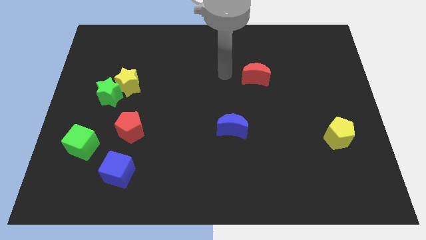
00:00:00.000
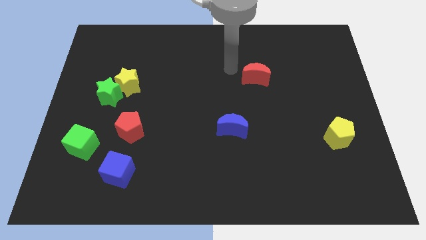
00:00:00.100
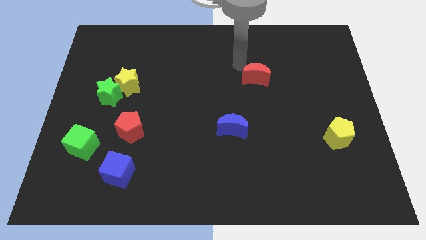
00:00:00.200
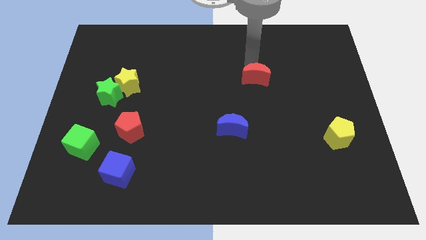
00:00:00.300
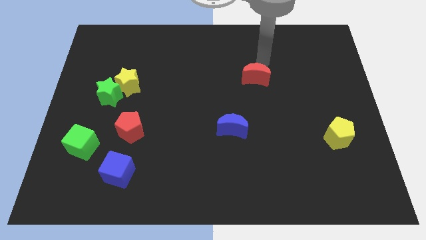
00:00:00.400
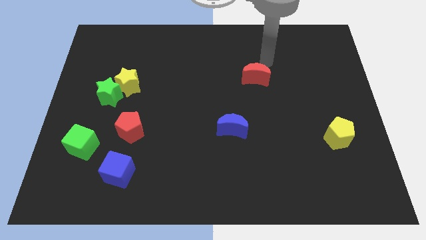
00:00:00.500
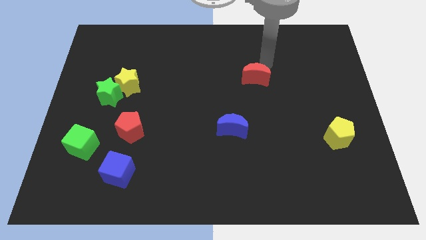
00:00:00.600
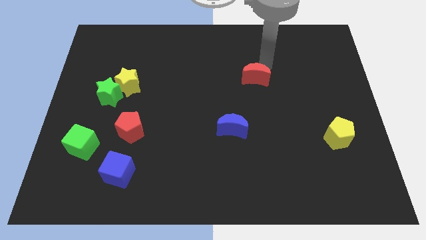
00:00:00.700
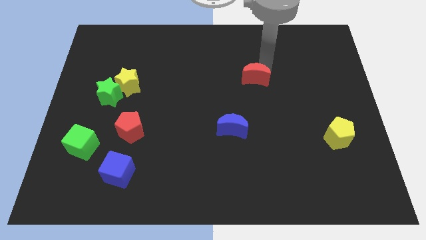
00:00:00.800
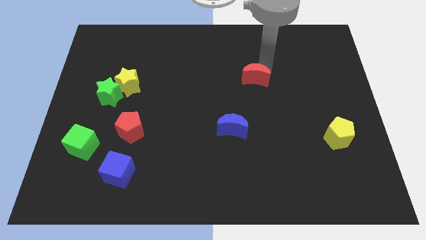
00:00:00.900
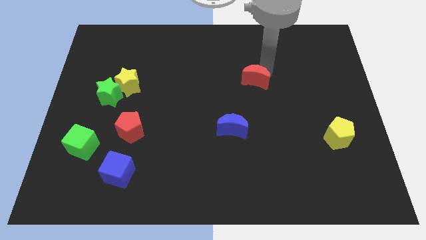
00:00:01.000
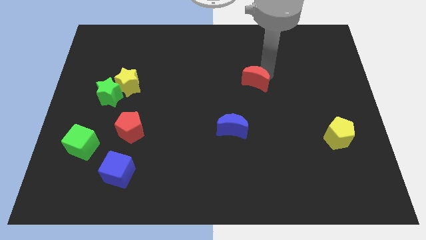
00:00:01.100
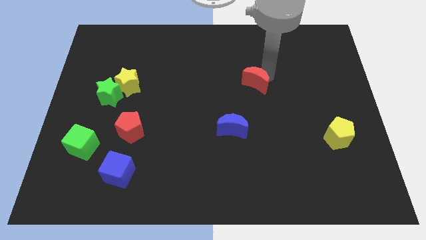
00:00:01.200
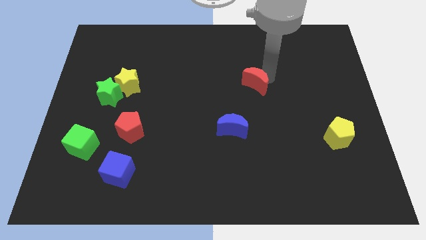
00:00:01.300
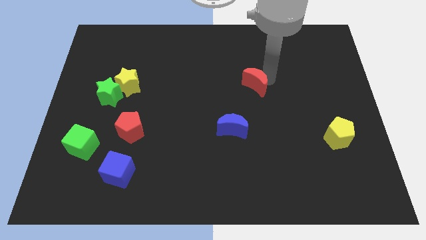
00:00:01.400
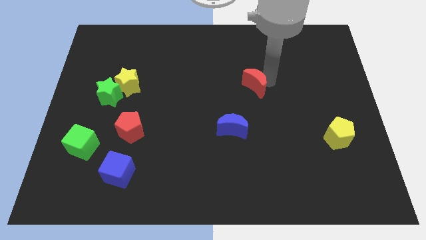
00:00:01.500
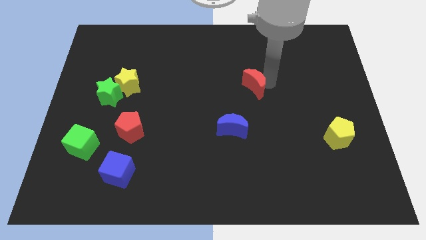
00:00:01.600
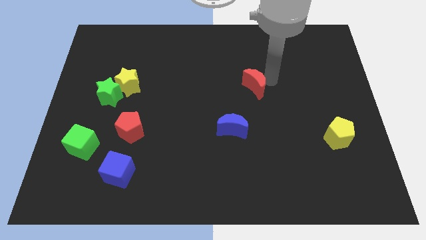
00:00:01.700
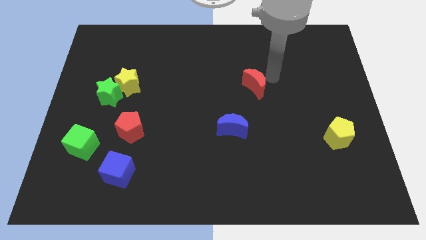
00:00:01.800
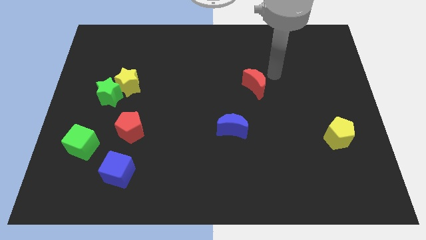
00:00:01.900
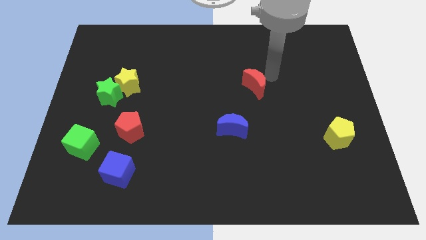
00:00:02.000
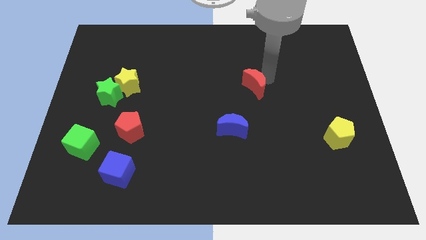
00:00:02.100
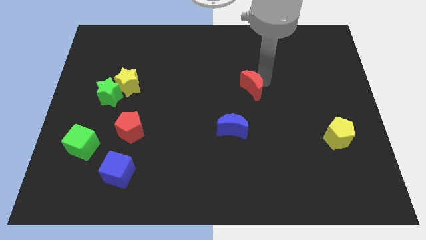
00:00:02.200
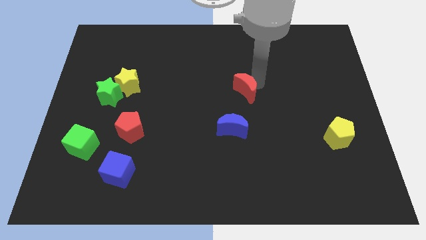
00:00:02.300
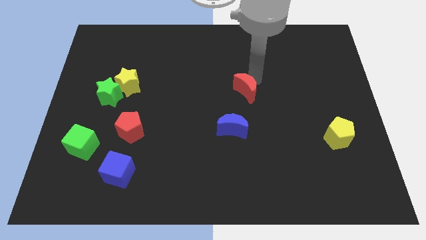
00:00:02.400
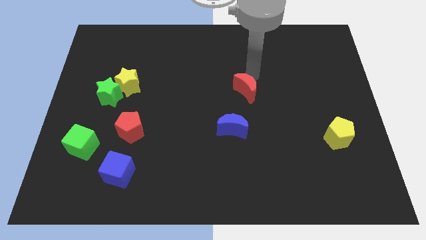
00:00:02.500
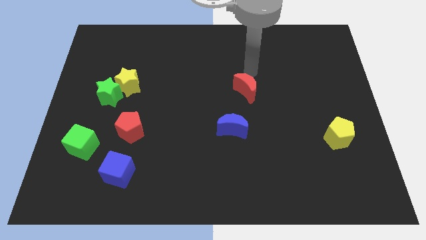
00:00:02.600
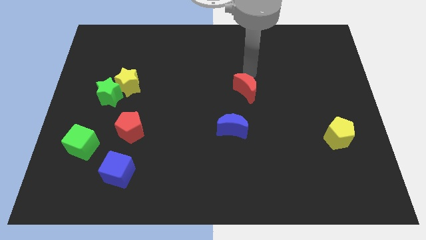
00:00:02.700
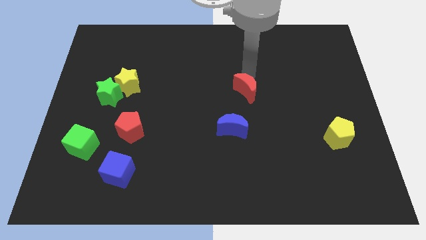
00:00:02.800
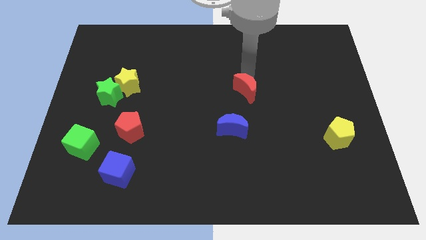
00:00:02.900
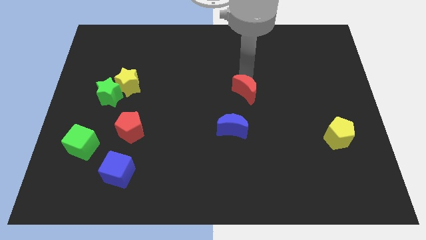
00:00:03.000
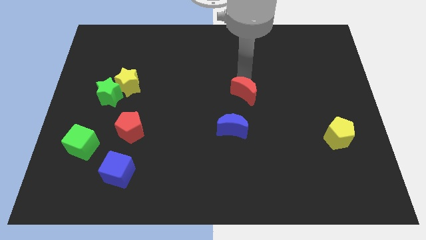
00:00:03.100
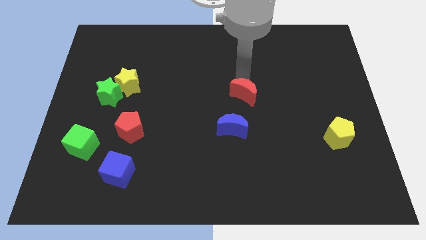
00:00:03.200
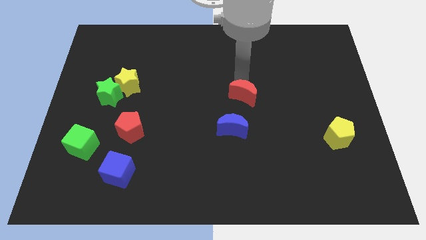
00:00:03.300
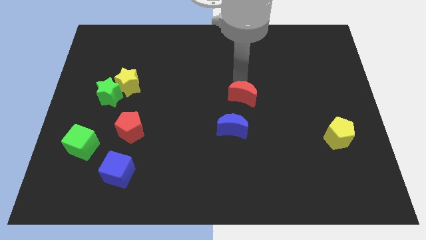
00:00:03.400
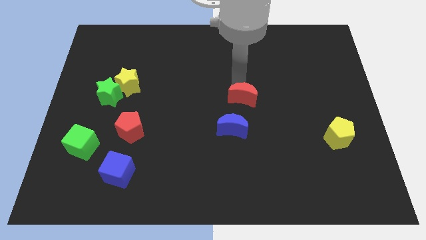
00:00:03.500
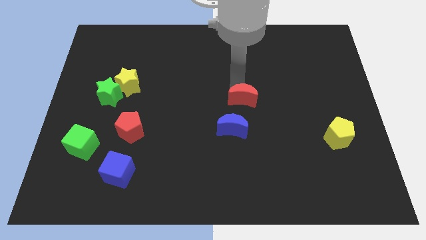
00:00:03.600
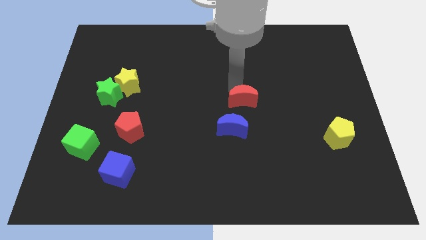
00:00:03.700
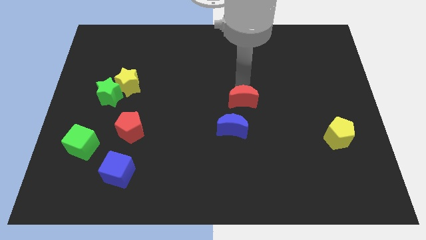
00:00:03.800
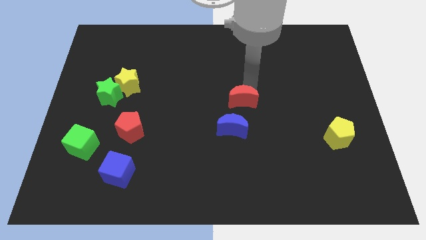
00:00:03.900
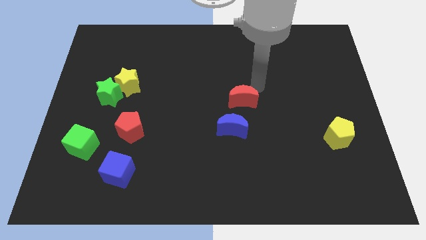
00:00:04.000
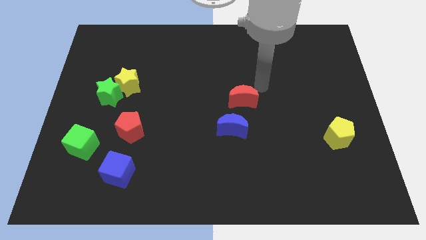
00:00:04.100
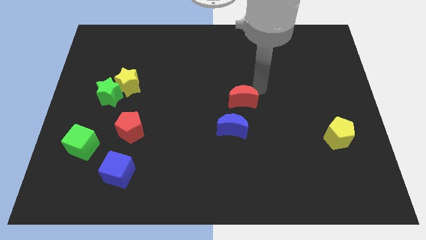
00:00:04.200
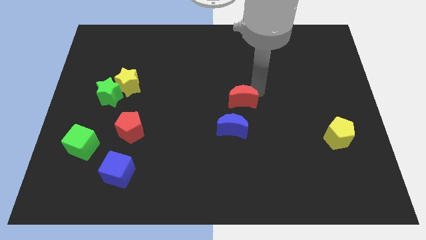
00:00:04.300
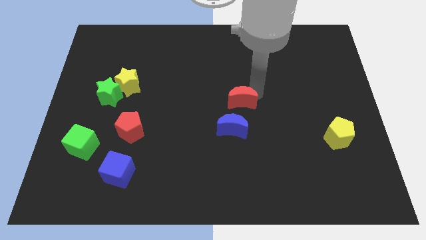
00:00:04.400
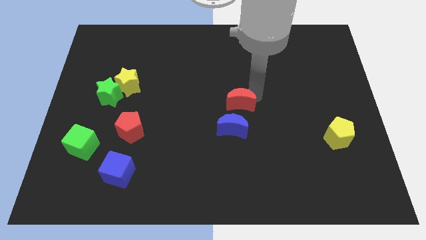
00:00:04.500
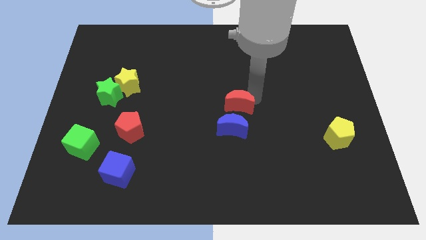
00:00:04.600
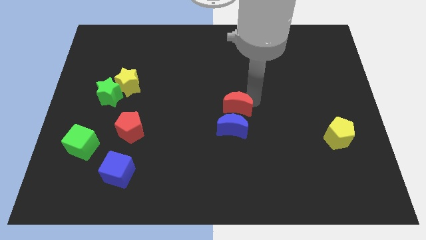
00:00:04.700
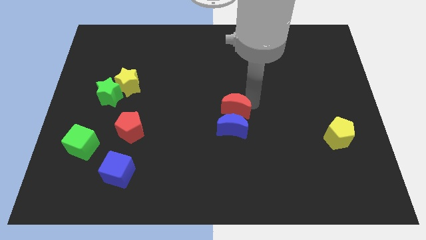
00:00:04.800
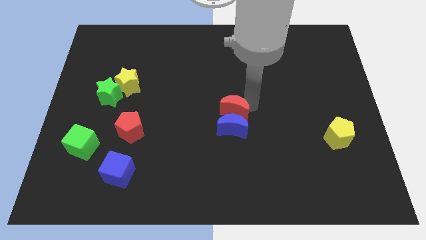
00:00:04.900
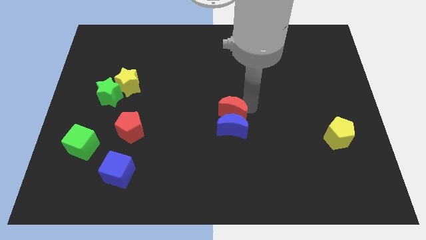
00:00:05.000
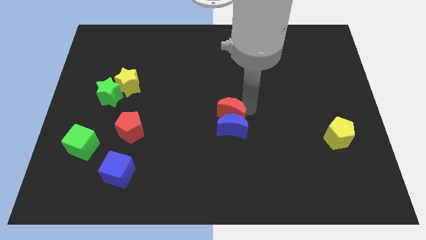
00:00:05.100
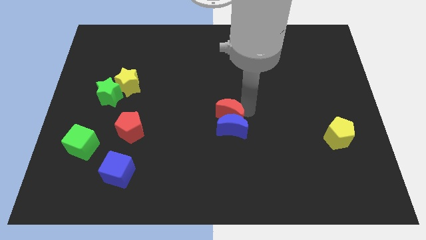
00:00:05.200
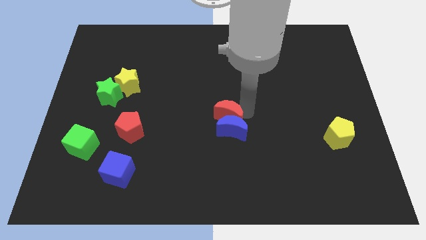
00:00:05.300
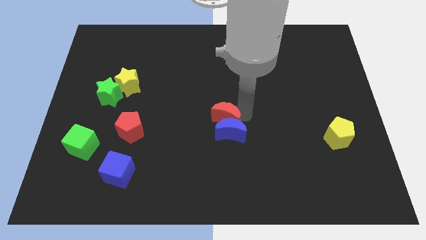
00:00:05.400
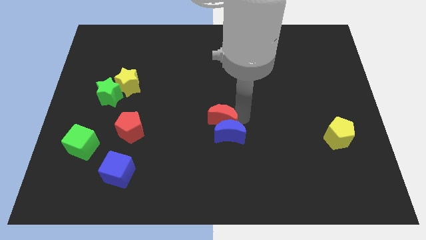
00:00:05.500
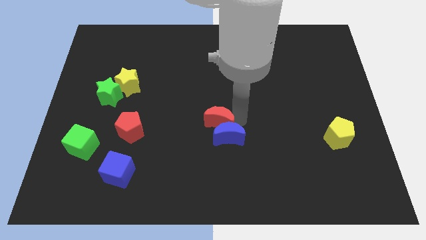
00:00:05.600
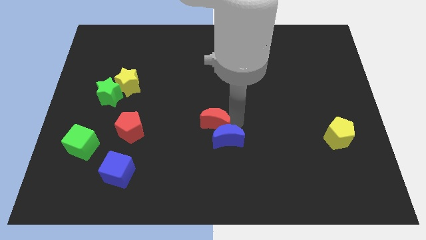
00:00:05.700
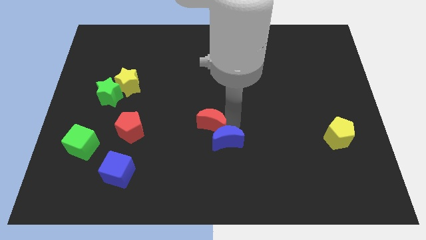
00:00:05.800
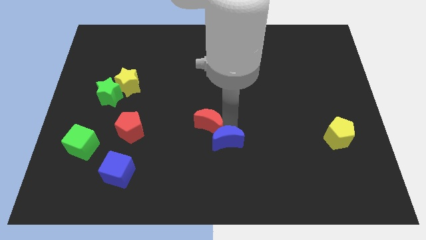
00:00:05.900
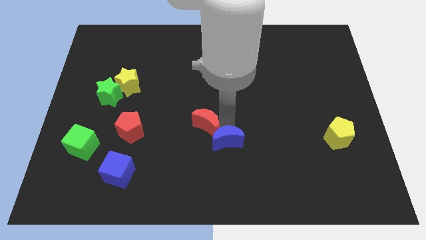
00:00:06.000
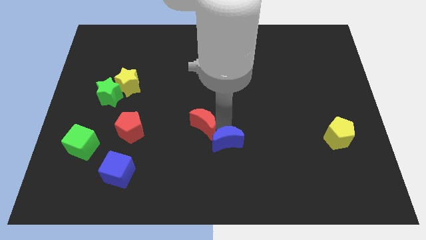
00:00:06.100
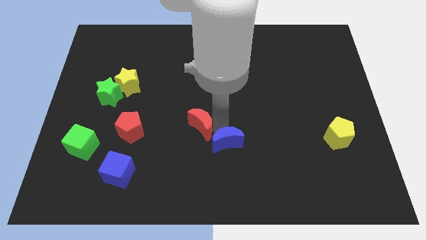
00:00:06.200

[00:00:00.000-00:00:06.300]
move the red moon down and then to the left

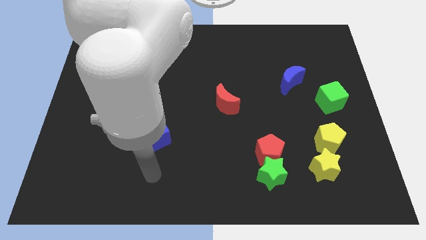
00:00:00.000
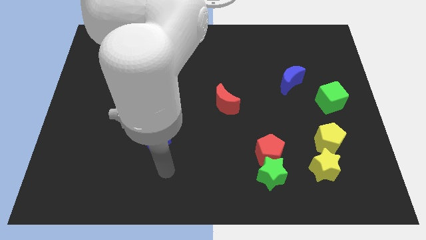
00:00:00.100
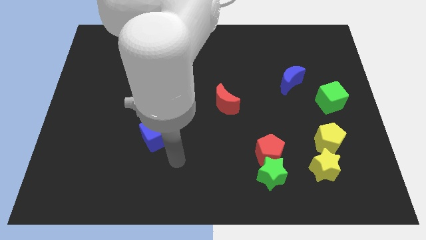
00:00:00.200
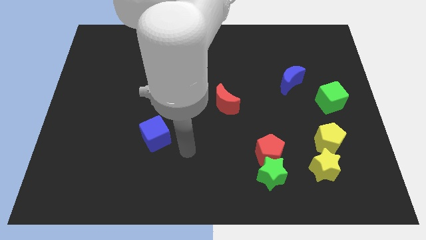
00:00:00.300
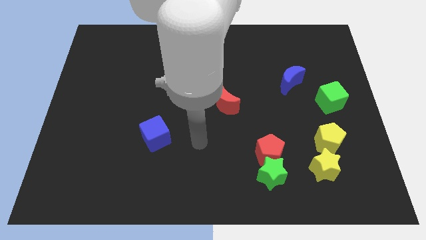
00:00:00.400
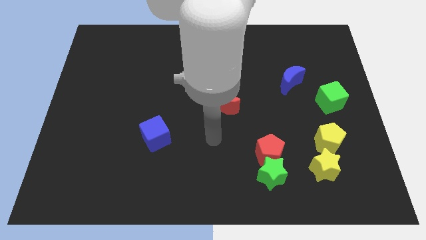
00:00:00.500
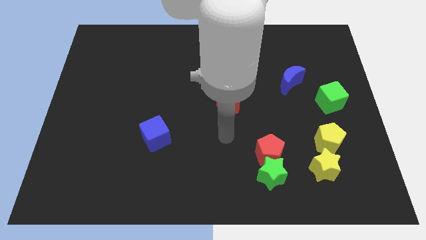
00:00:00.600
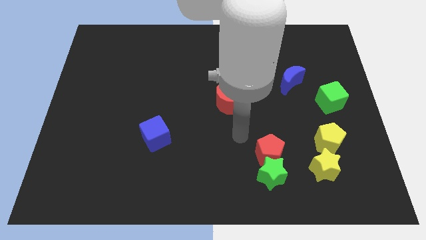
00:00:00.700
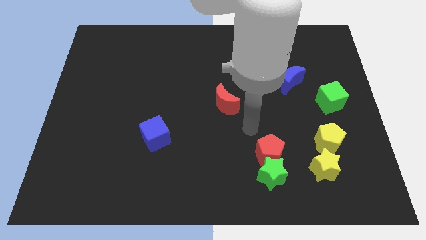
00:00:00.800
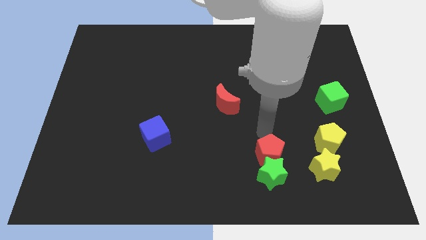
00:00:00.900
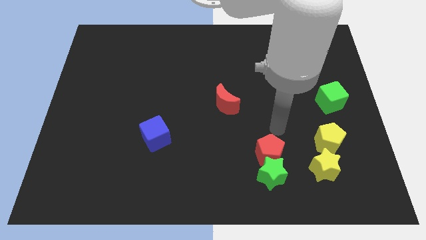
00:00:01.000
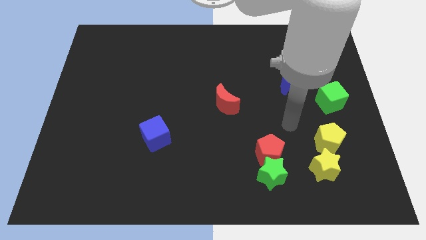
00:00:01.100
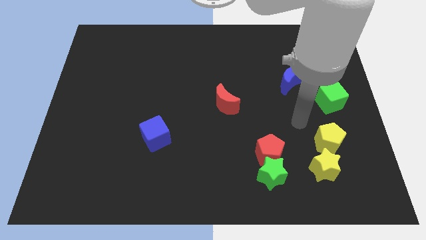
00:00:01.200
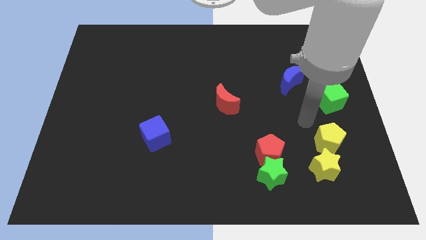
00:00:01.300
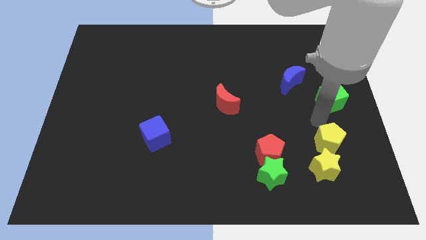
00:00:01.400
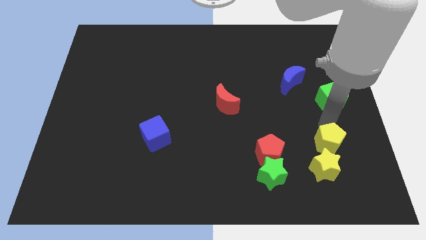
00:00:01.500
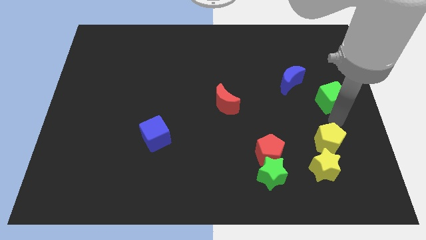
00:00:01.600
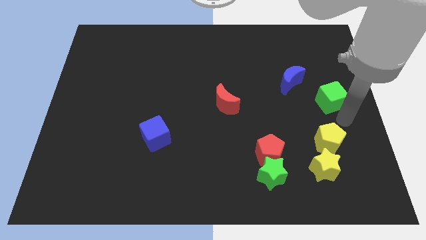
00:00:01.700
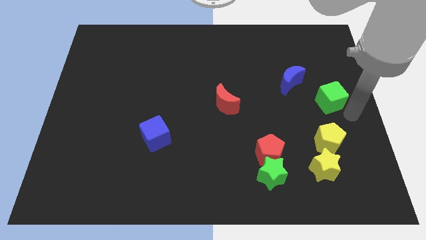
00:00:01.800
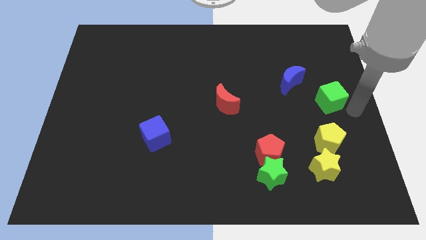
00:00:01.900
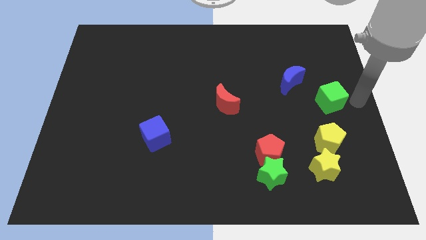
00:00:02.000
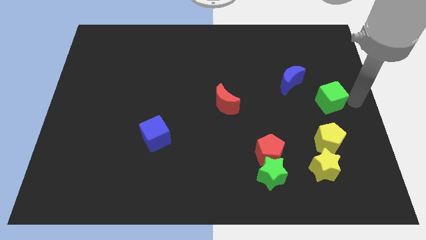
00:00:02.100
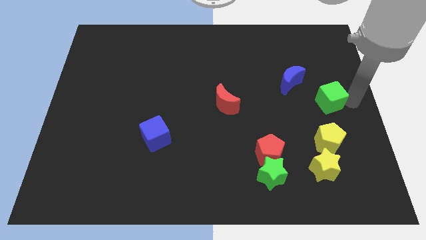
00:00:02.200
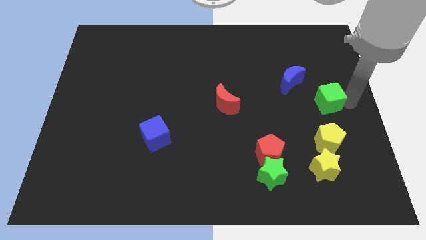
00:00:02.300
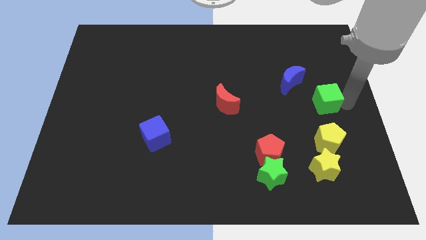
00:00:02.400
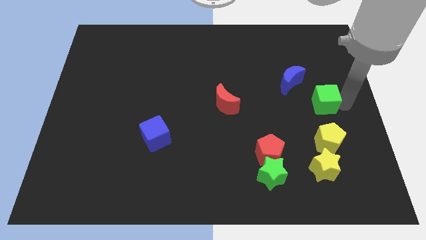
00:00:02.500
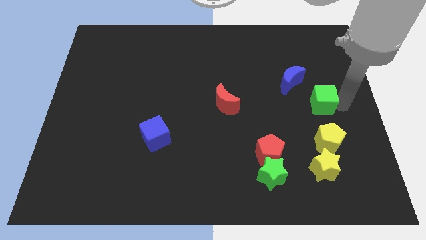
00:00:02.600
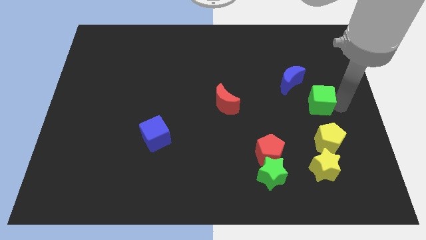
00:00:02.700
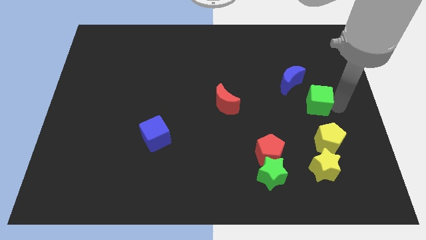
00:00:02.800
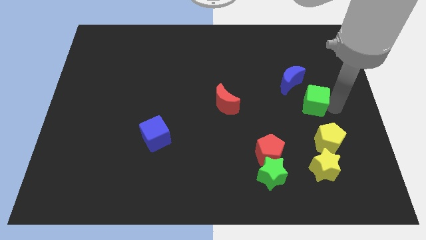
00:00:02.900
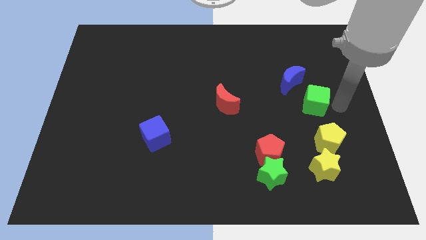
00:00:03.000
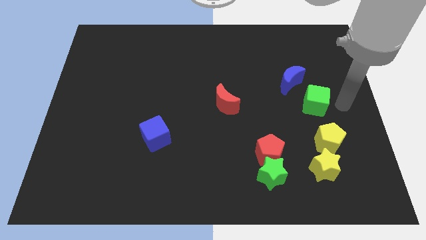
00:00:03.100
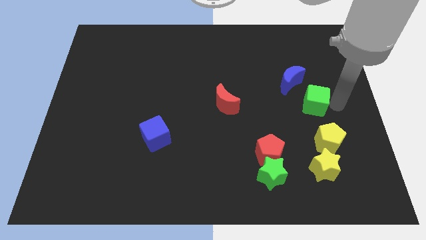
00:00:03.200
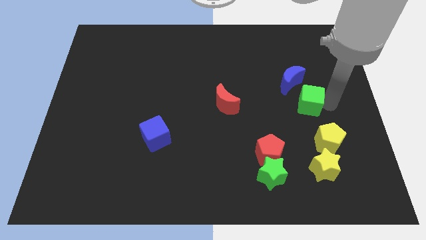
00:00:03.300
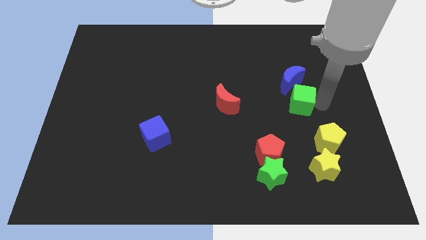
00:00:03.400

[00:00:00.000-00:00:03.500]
slightly move the green cube left
